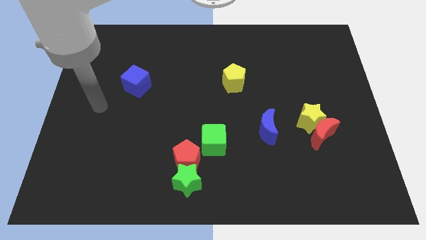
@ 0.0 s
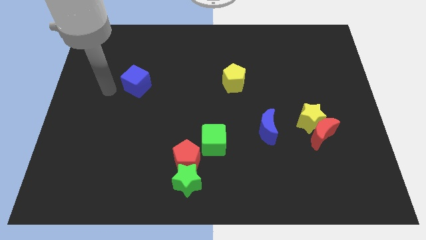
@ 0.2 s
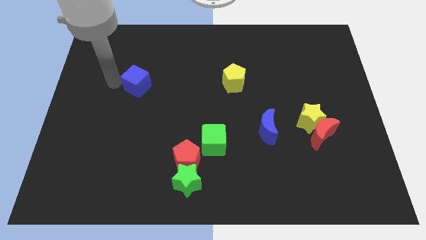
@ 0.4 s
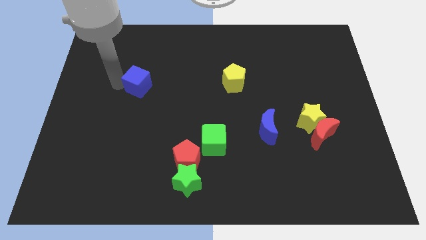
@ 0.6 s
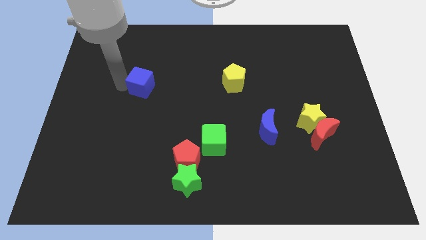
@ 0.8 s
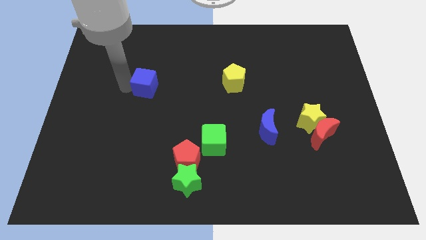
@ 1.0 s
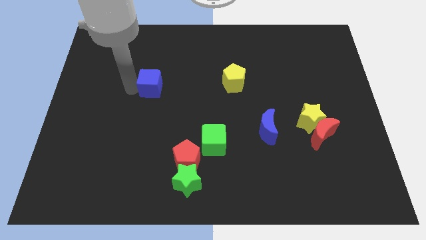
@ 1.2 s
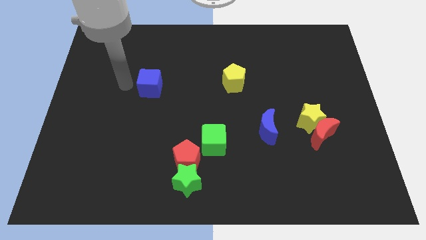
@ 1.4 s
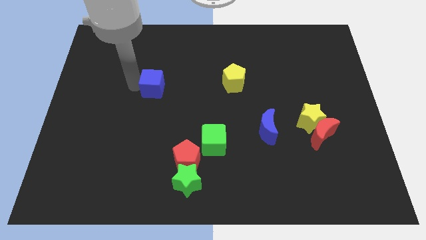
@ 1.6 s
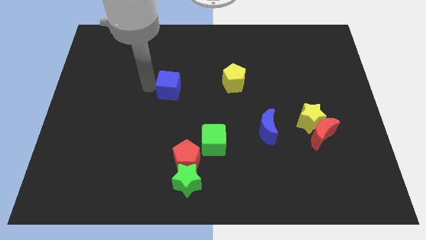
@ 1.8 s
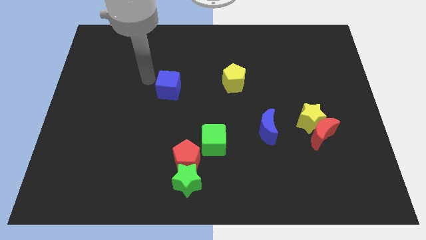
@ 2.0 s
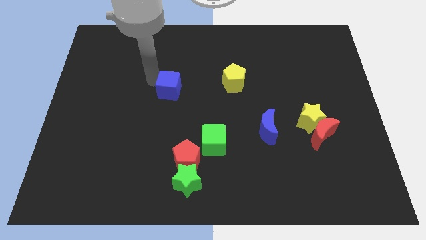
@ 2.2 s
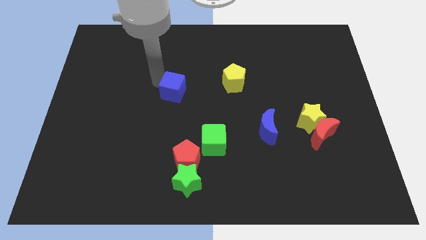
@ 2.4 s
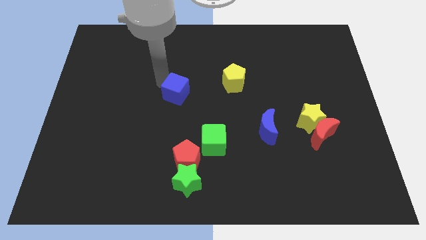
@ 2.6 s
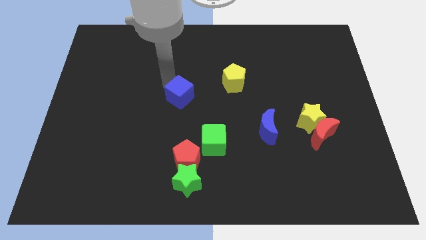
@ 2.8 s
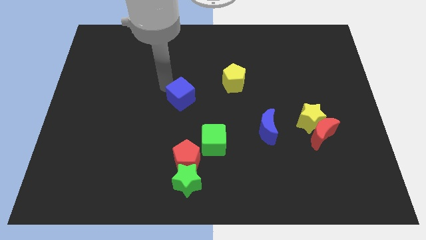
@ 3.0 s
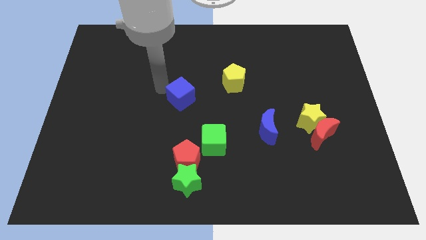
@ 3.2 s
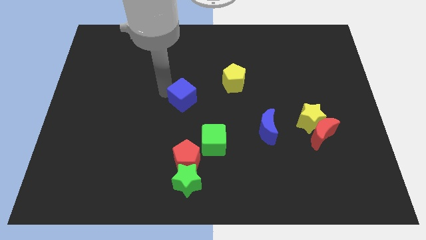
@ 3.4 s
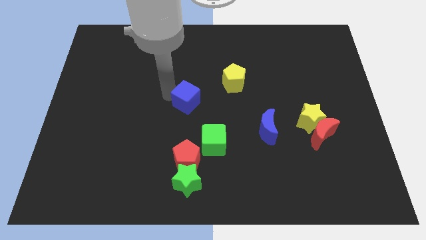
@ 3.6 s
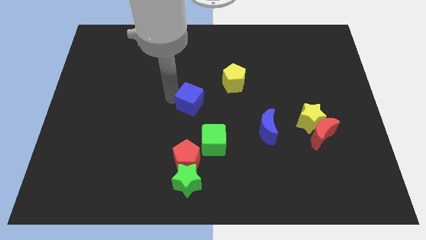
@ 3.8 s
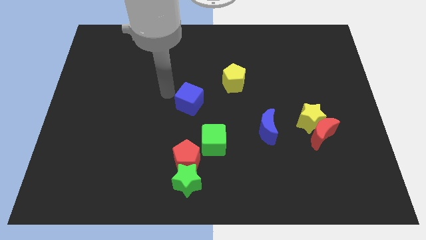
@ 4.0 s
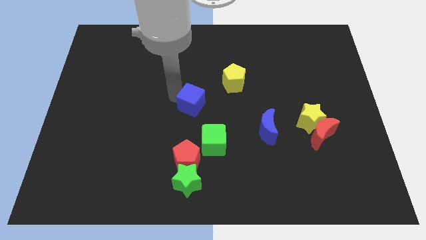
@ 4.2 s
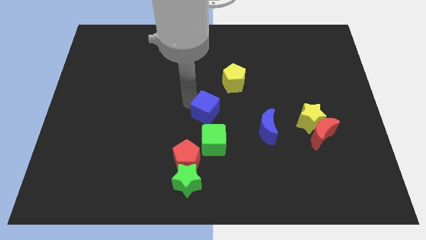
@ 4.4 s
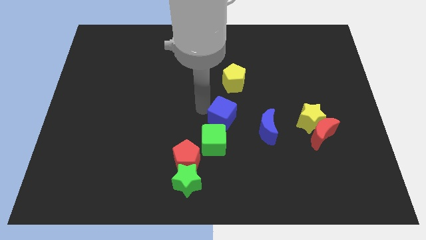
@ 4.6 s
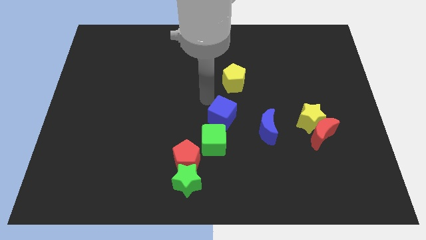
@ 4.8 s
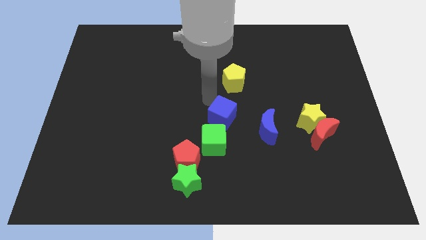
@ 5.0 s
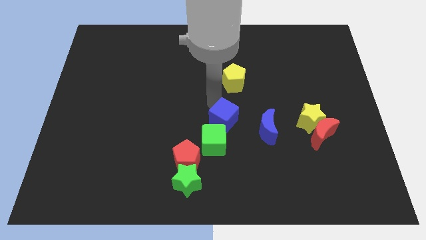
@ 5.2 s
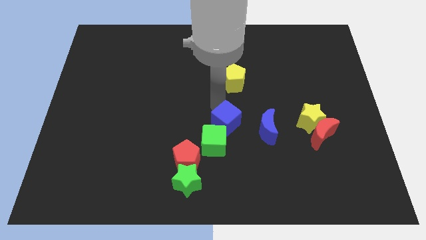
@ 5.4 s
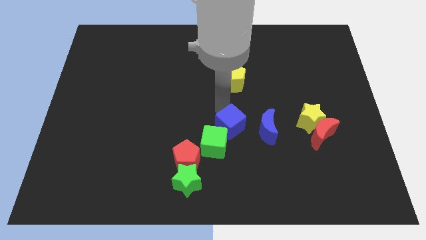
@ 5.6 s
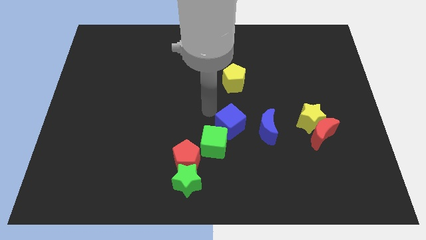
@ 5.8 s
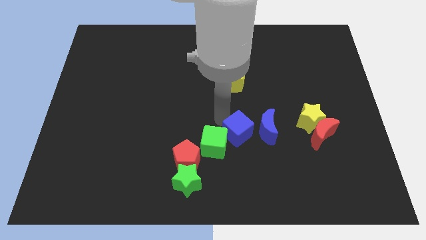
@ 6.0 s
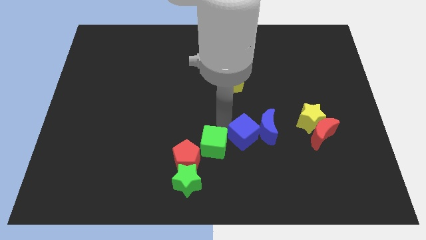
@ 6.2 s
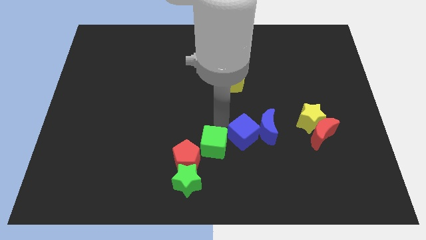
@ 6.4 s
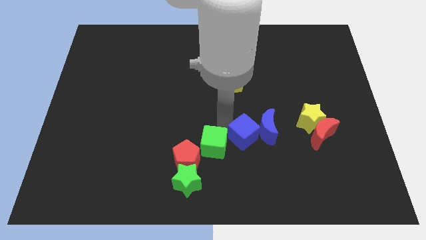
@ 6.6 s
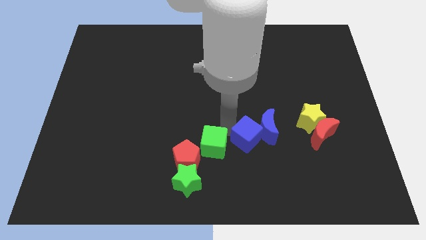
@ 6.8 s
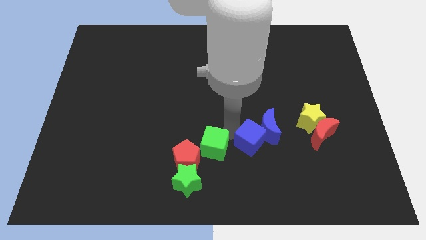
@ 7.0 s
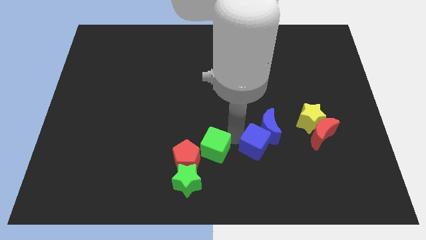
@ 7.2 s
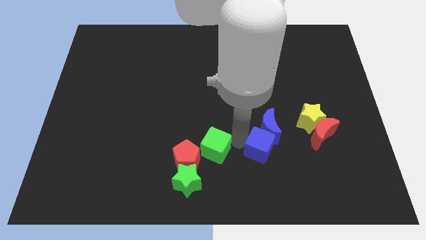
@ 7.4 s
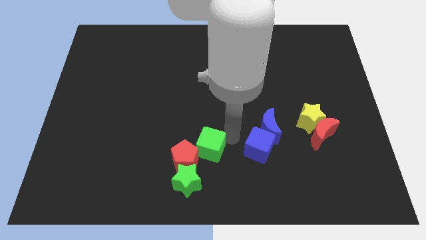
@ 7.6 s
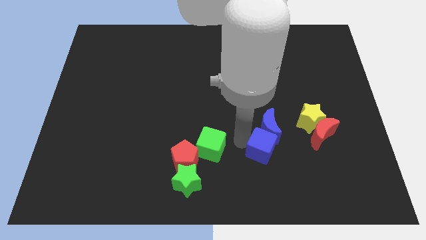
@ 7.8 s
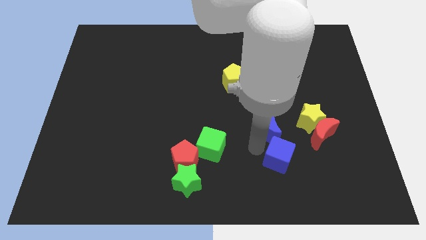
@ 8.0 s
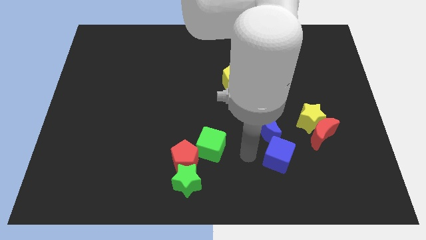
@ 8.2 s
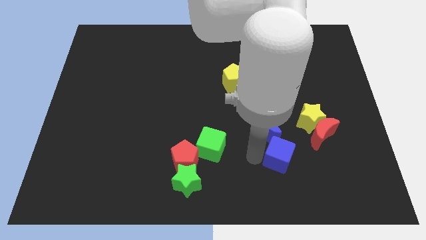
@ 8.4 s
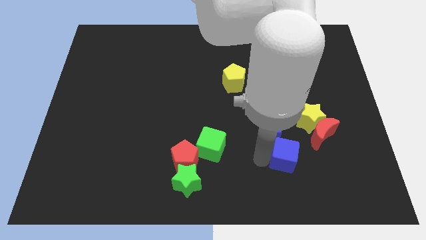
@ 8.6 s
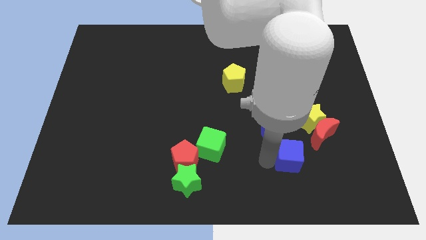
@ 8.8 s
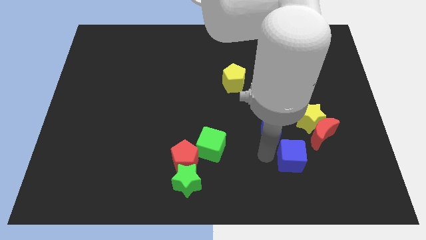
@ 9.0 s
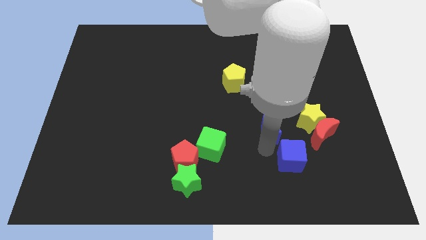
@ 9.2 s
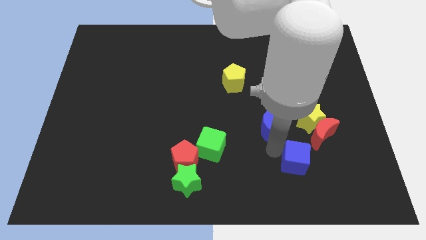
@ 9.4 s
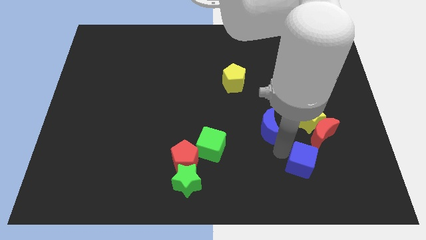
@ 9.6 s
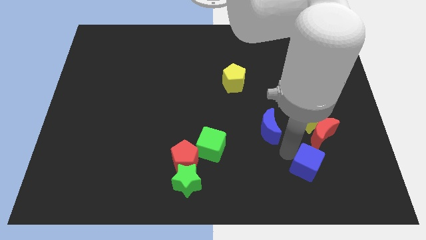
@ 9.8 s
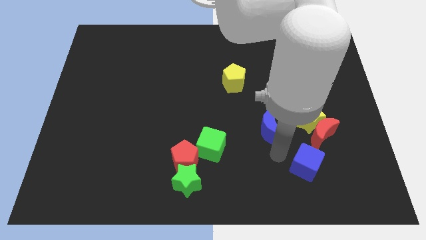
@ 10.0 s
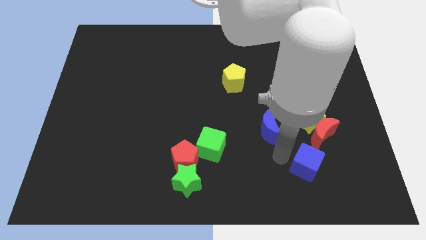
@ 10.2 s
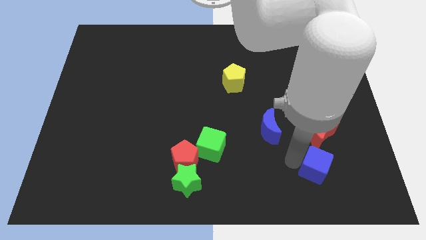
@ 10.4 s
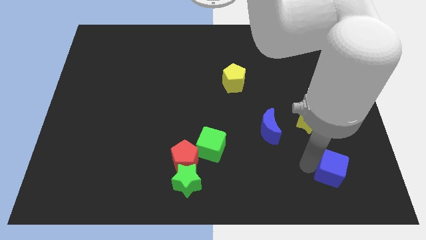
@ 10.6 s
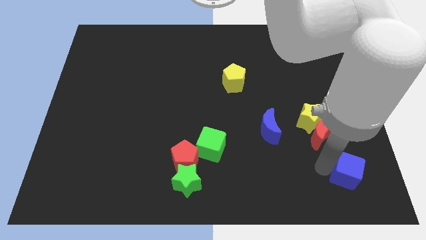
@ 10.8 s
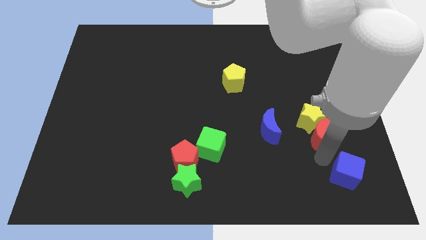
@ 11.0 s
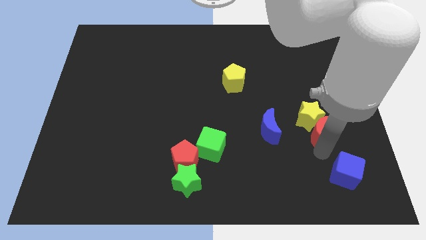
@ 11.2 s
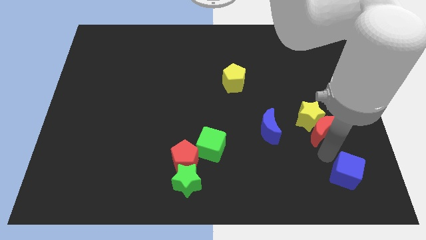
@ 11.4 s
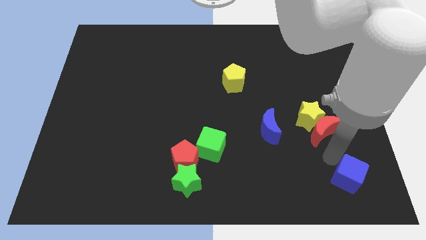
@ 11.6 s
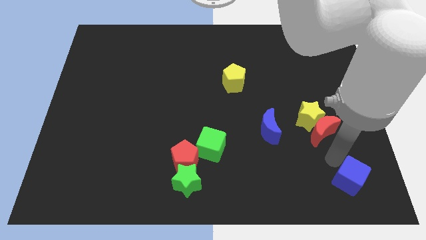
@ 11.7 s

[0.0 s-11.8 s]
push the blue cube to the bottom right corner

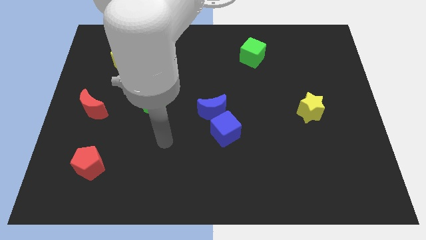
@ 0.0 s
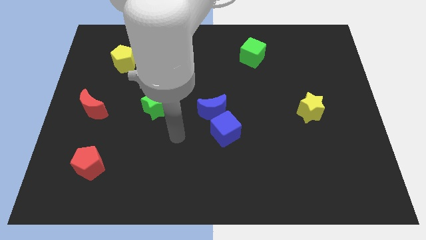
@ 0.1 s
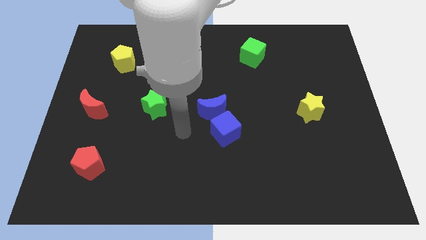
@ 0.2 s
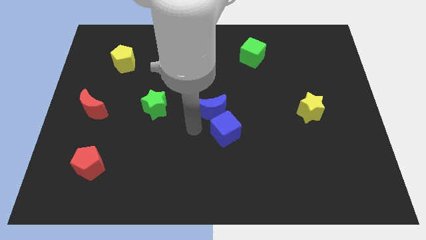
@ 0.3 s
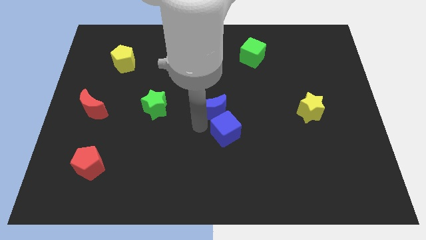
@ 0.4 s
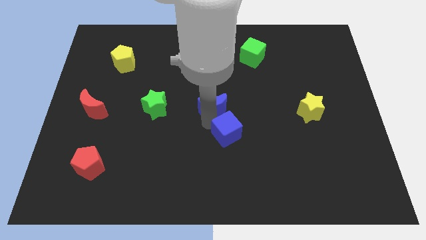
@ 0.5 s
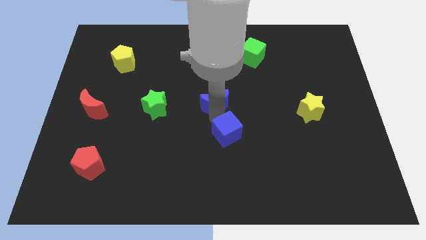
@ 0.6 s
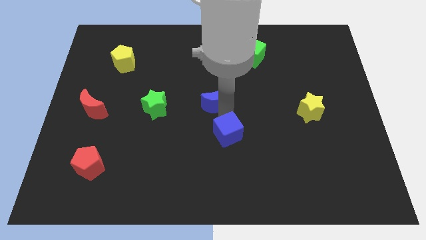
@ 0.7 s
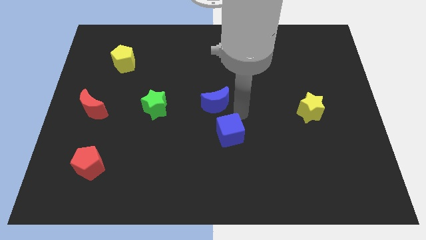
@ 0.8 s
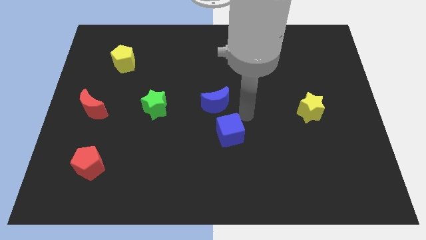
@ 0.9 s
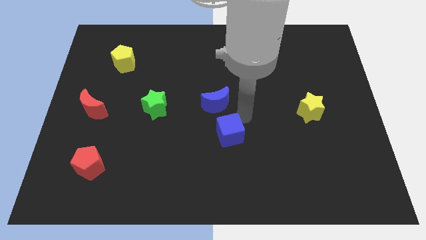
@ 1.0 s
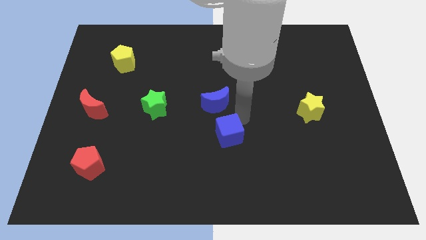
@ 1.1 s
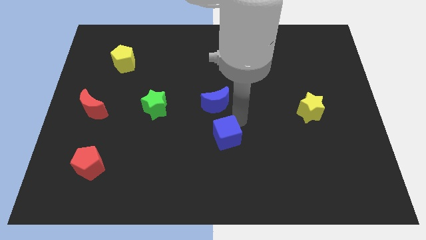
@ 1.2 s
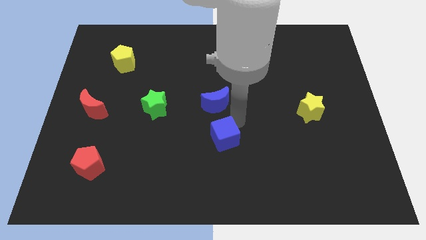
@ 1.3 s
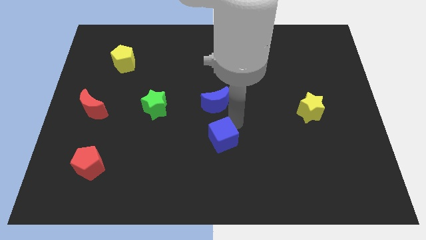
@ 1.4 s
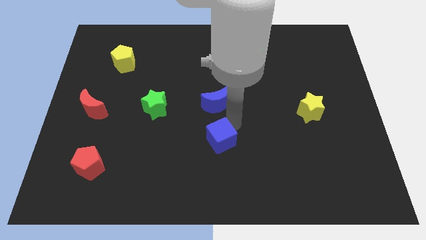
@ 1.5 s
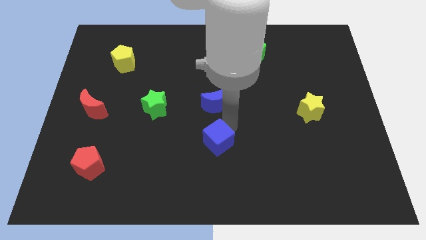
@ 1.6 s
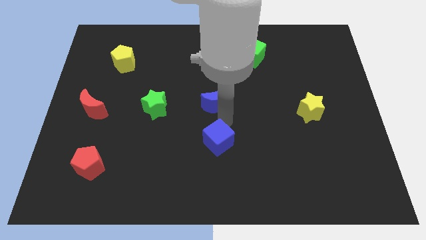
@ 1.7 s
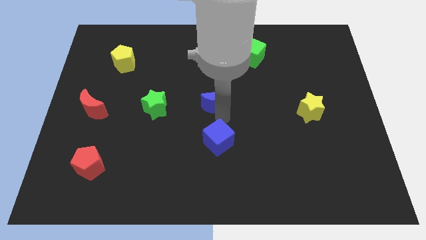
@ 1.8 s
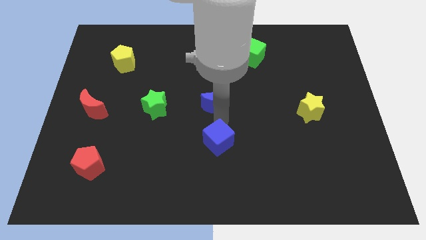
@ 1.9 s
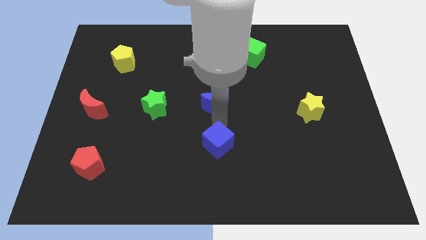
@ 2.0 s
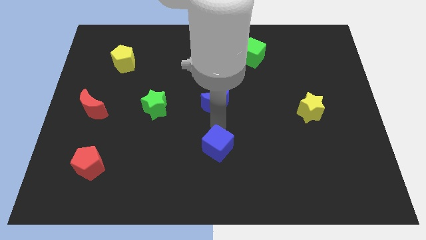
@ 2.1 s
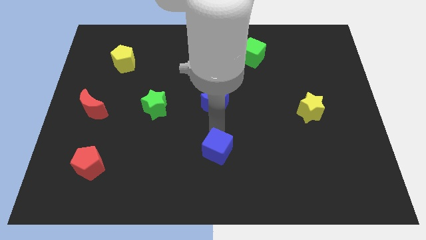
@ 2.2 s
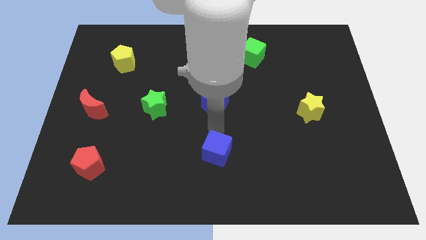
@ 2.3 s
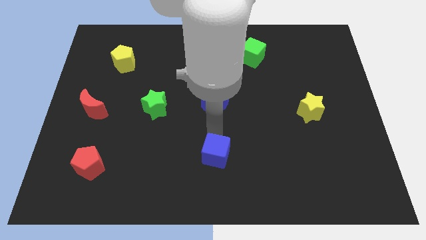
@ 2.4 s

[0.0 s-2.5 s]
slide the blue cube to the bottom side
